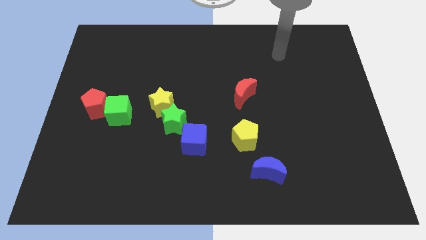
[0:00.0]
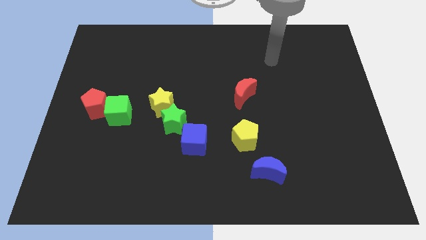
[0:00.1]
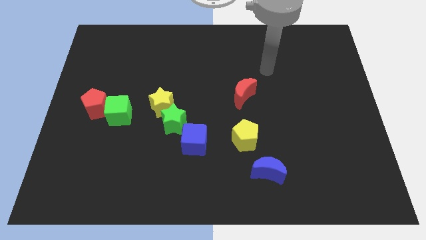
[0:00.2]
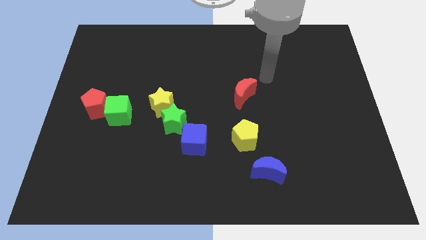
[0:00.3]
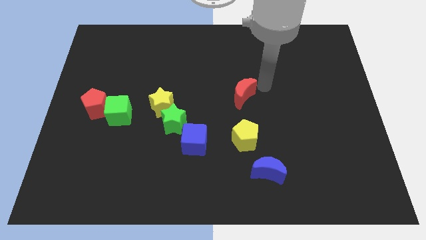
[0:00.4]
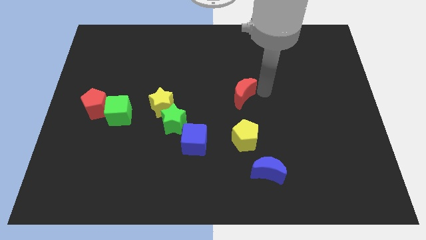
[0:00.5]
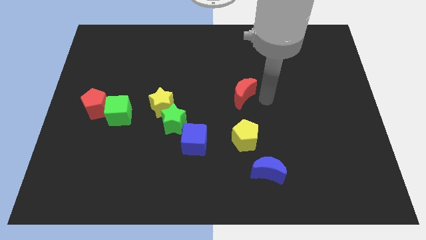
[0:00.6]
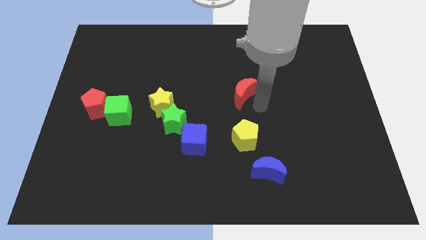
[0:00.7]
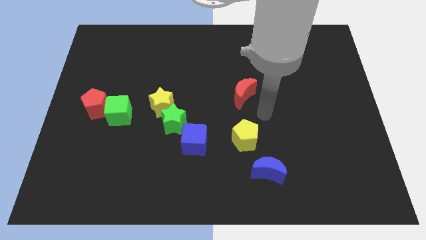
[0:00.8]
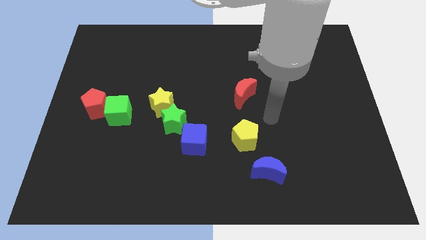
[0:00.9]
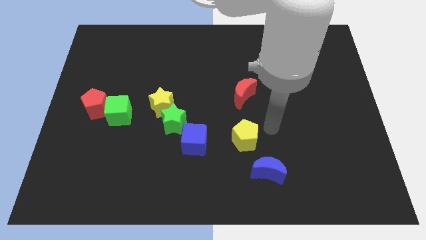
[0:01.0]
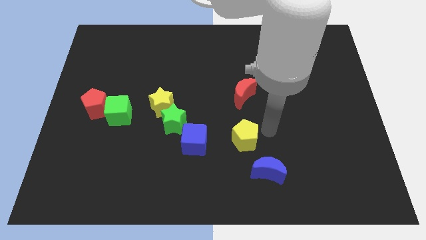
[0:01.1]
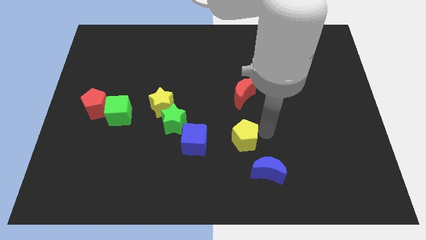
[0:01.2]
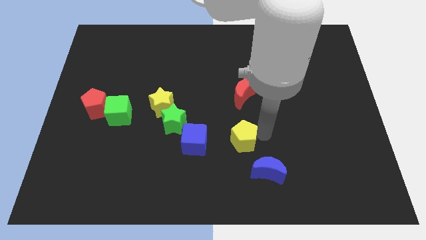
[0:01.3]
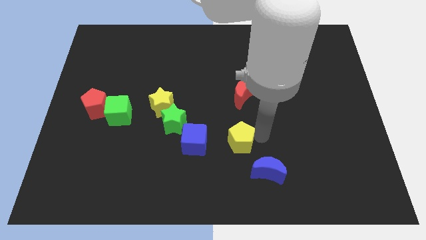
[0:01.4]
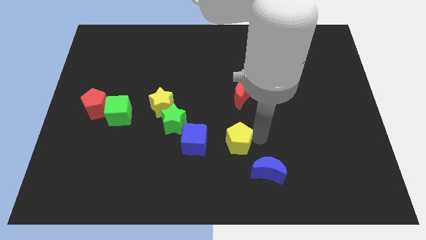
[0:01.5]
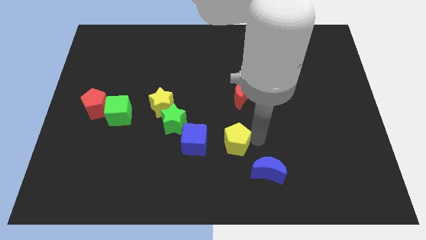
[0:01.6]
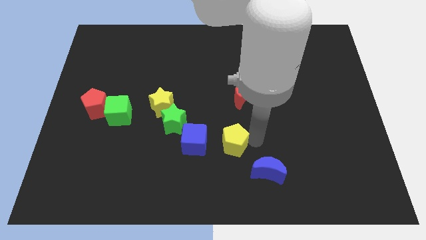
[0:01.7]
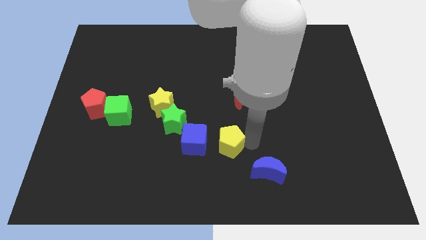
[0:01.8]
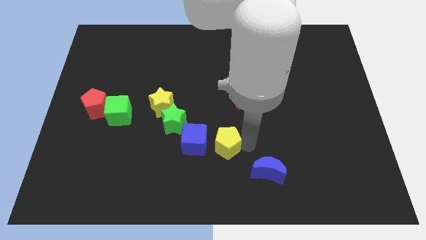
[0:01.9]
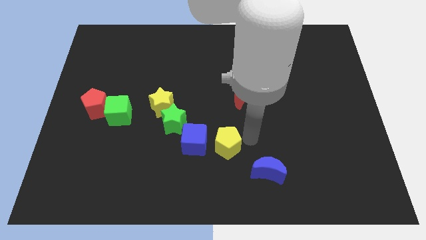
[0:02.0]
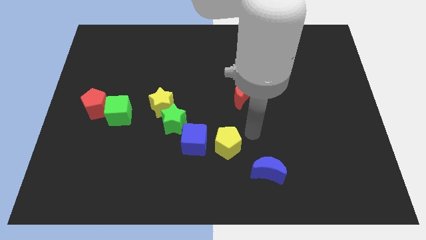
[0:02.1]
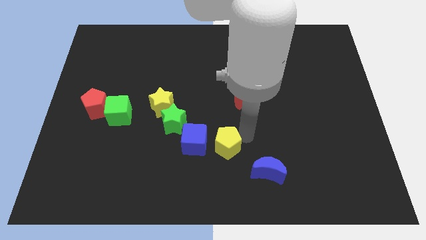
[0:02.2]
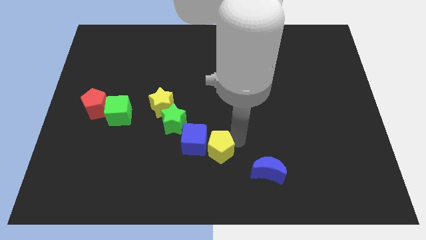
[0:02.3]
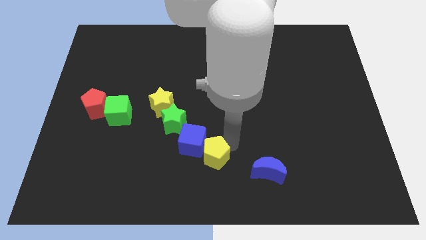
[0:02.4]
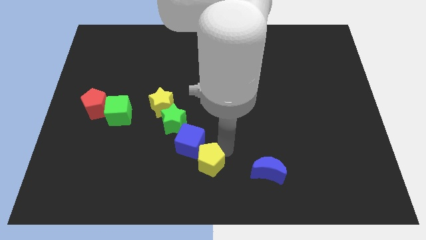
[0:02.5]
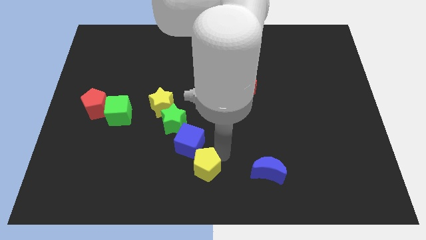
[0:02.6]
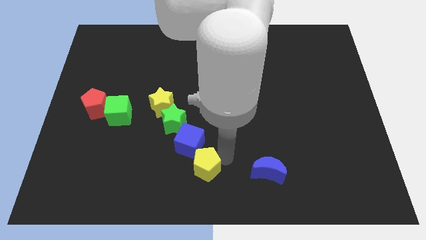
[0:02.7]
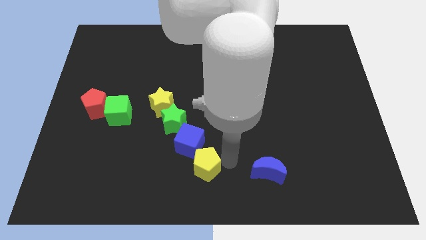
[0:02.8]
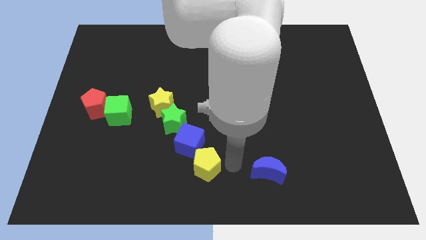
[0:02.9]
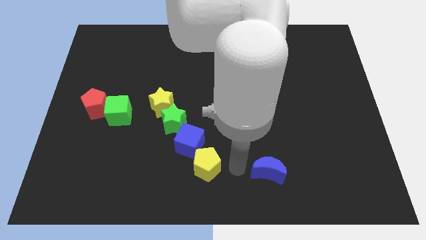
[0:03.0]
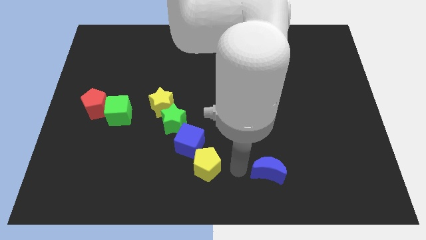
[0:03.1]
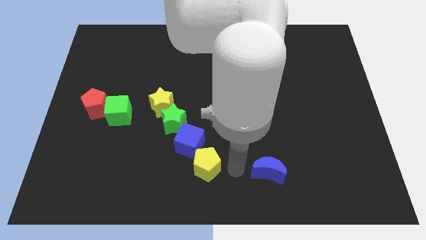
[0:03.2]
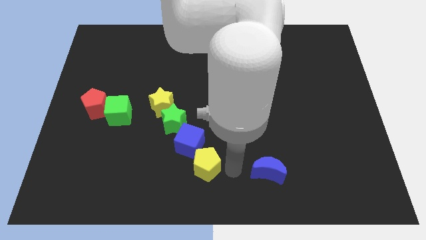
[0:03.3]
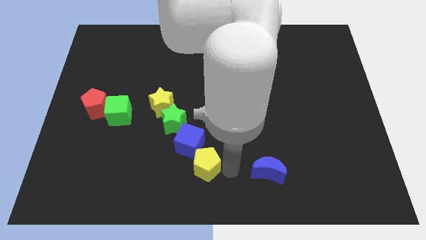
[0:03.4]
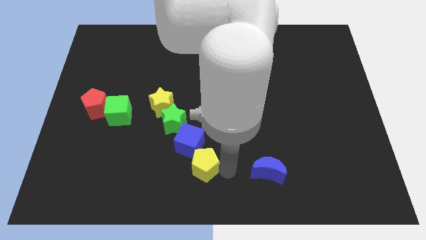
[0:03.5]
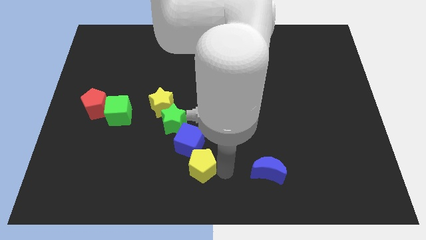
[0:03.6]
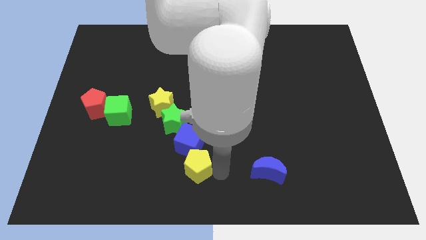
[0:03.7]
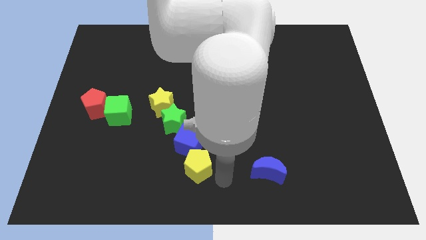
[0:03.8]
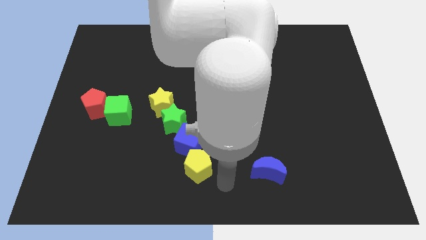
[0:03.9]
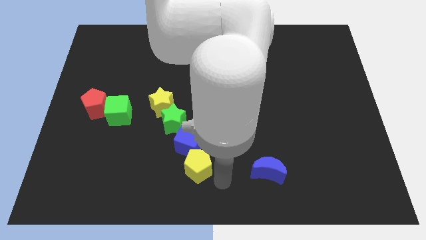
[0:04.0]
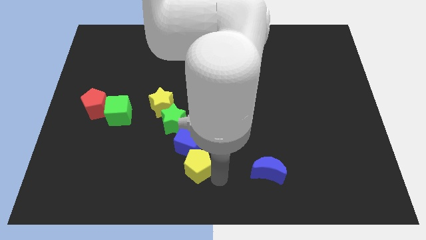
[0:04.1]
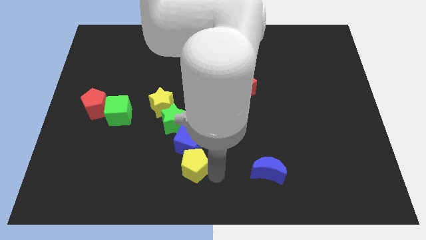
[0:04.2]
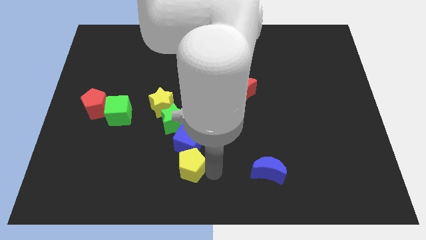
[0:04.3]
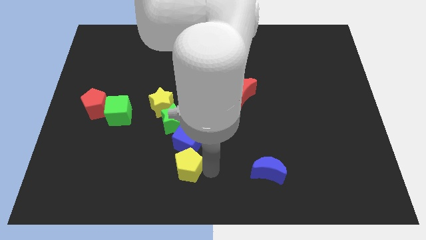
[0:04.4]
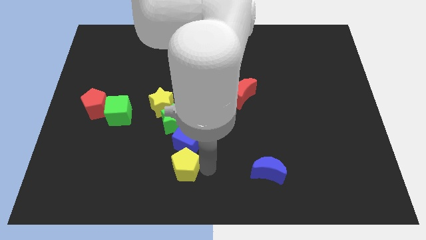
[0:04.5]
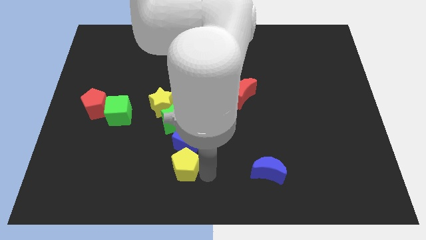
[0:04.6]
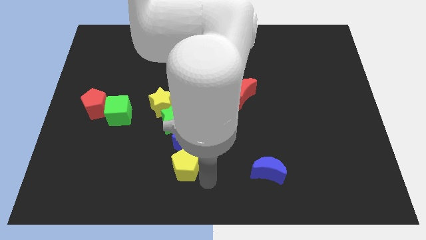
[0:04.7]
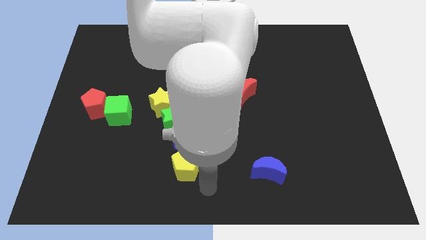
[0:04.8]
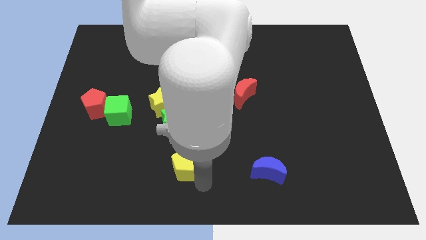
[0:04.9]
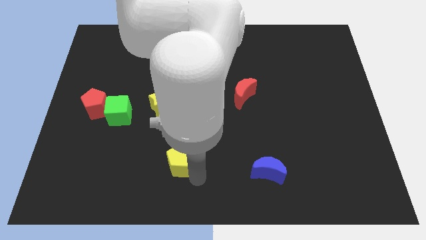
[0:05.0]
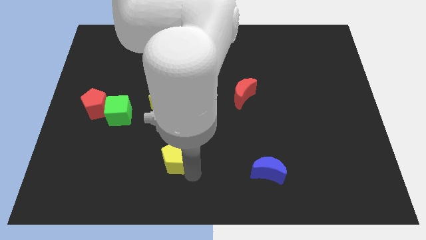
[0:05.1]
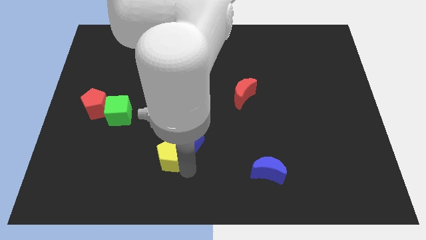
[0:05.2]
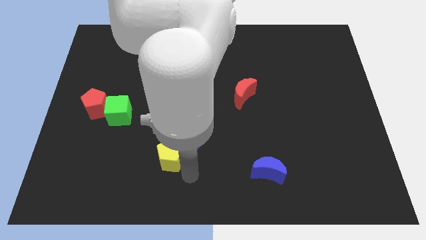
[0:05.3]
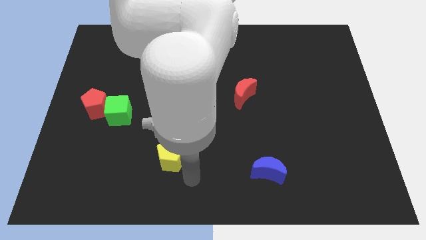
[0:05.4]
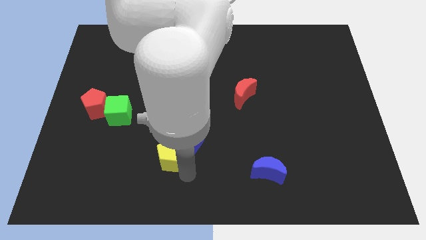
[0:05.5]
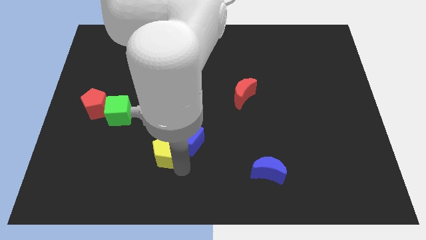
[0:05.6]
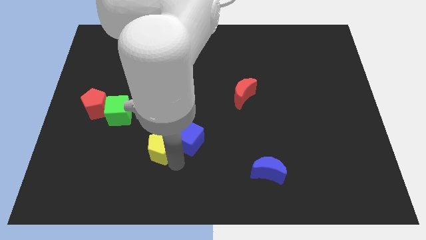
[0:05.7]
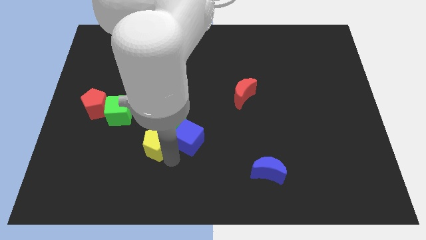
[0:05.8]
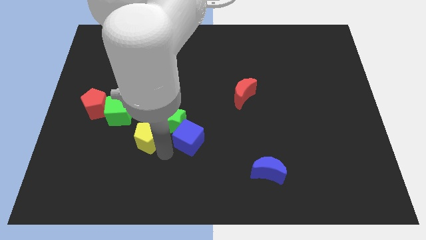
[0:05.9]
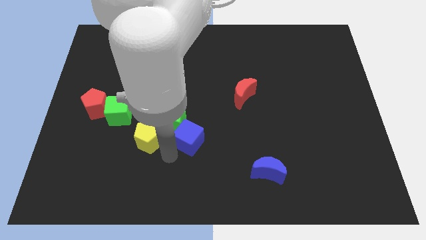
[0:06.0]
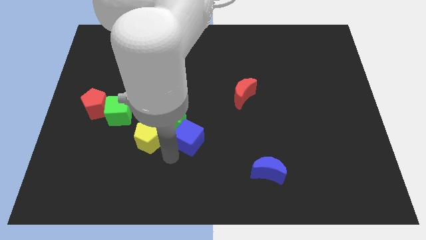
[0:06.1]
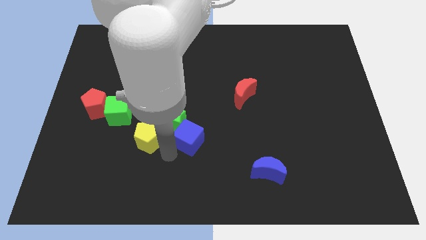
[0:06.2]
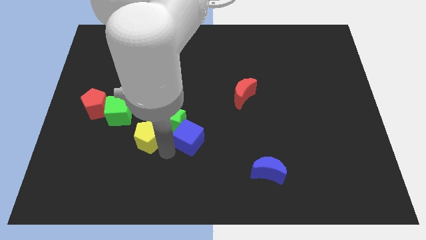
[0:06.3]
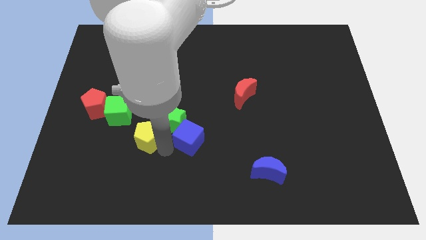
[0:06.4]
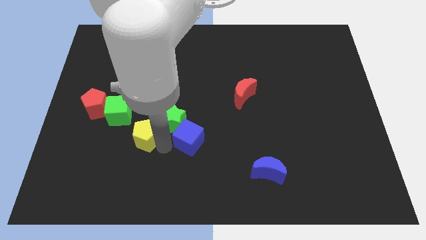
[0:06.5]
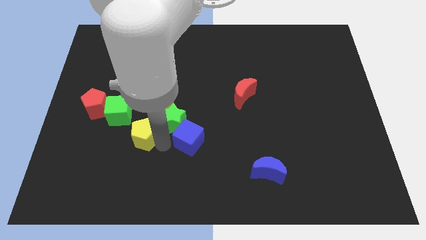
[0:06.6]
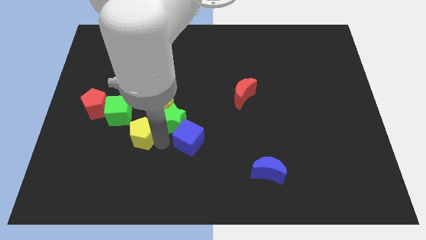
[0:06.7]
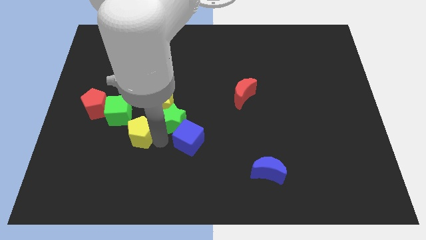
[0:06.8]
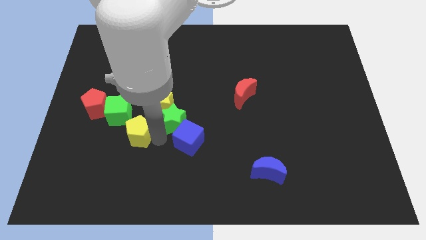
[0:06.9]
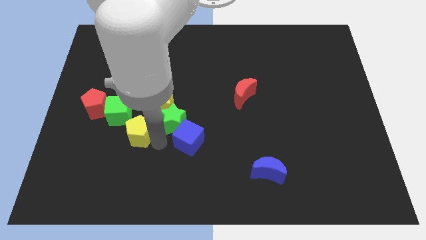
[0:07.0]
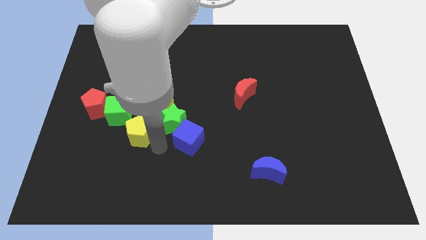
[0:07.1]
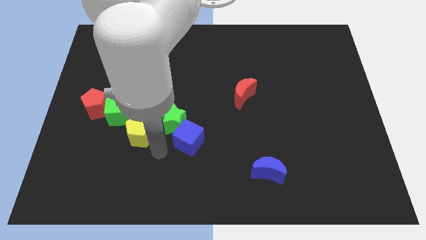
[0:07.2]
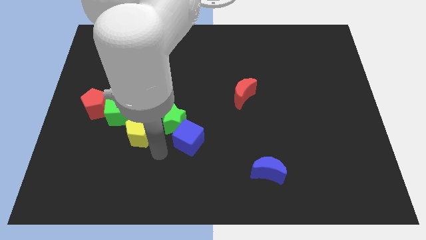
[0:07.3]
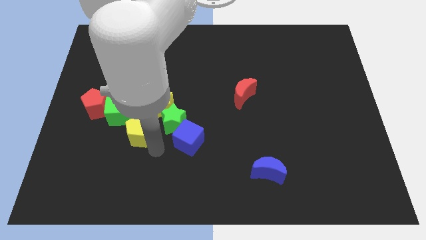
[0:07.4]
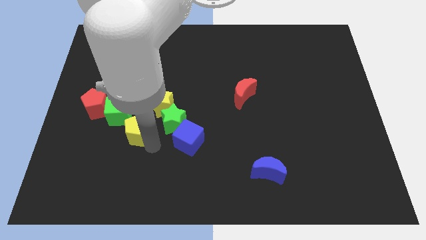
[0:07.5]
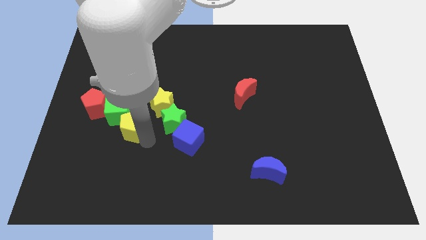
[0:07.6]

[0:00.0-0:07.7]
put the yellow pentagon towards the green cube
